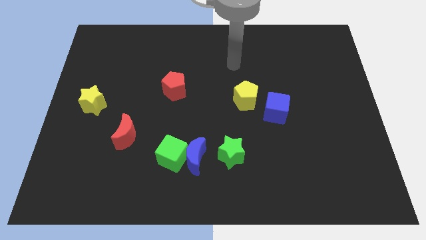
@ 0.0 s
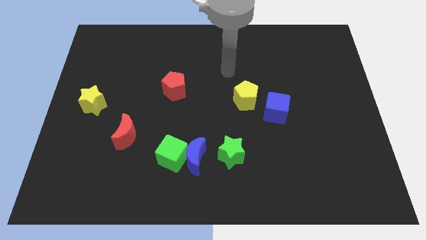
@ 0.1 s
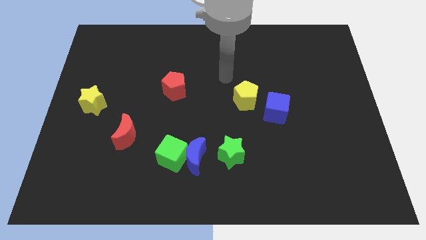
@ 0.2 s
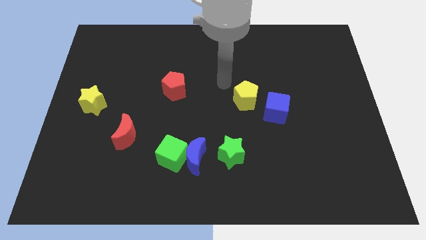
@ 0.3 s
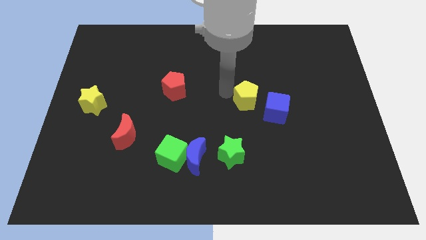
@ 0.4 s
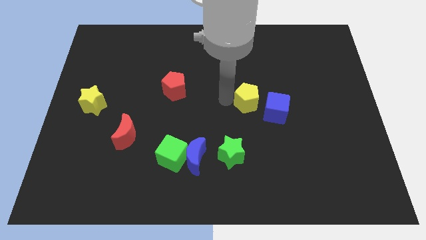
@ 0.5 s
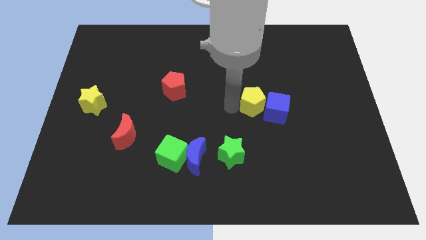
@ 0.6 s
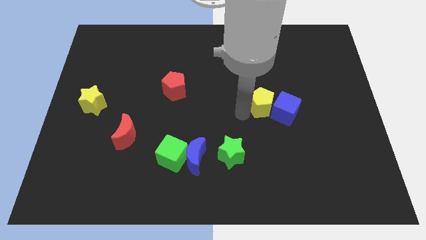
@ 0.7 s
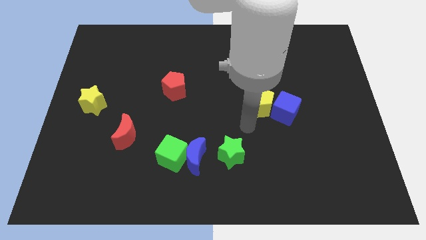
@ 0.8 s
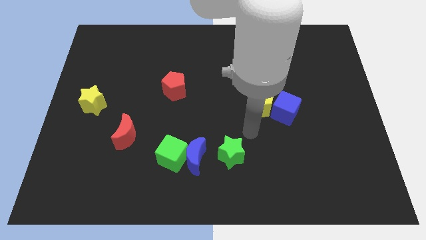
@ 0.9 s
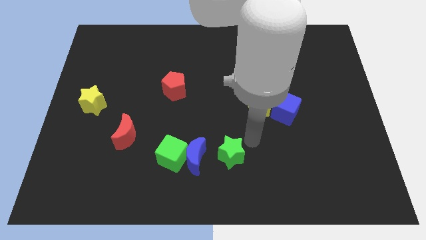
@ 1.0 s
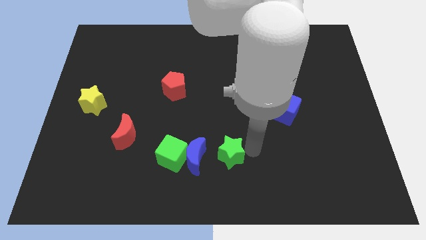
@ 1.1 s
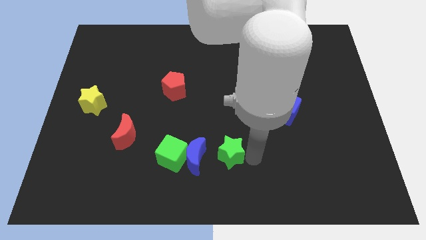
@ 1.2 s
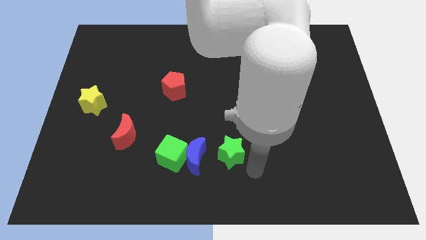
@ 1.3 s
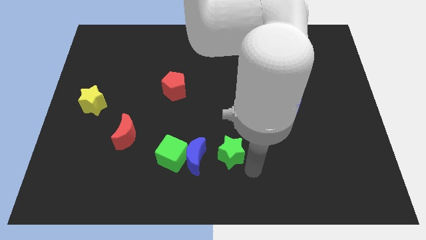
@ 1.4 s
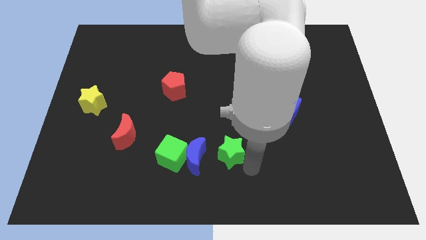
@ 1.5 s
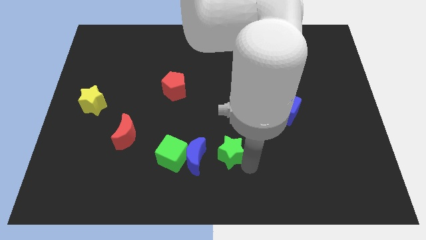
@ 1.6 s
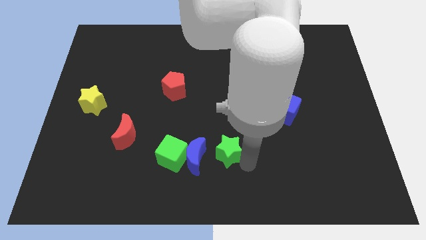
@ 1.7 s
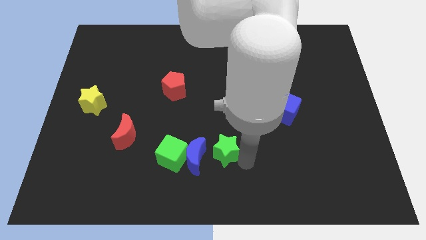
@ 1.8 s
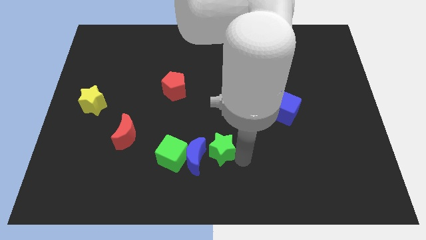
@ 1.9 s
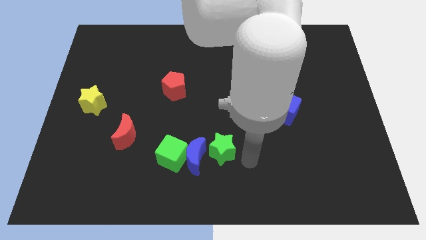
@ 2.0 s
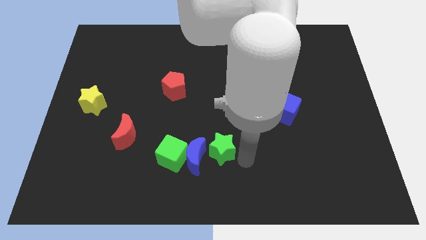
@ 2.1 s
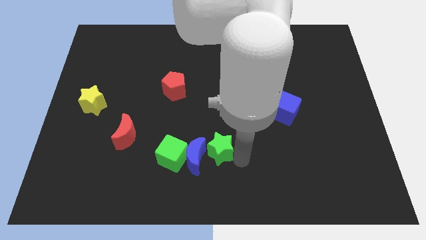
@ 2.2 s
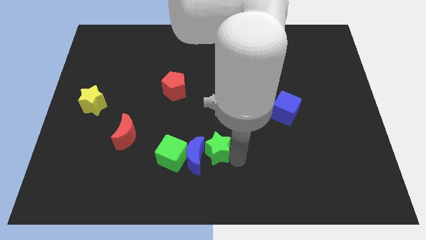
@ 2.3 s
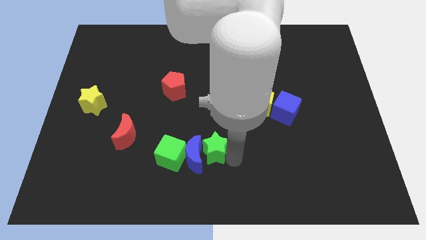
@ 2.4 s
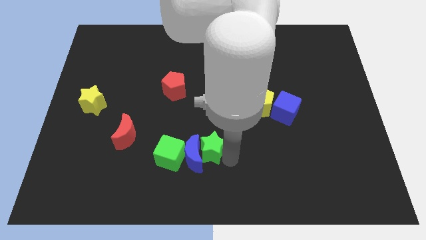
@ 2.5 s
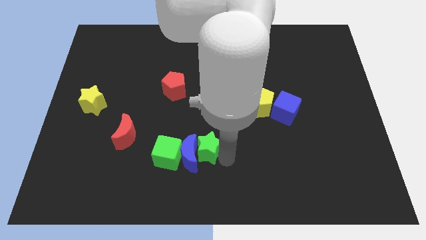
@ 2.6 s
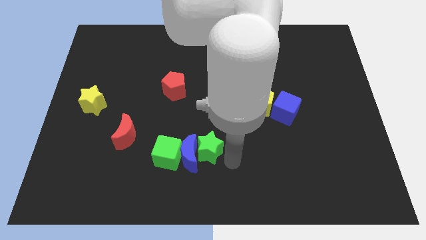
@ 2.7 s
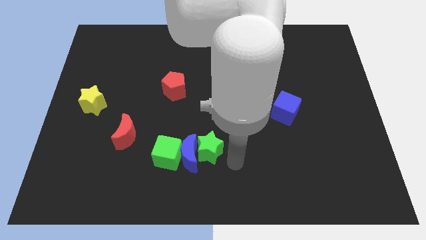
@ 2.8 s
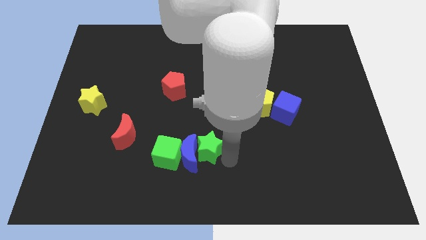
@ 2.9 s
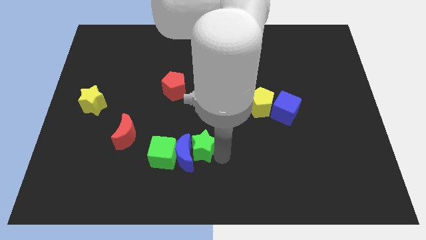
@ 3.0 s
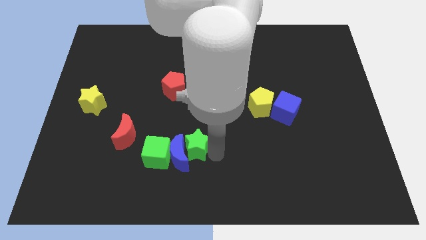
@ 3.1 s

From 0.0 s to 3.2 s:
slide the green star slightly left

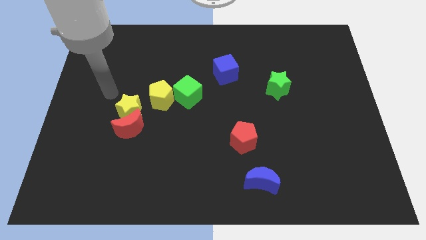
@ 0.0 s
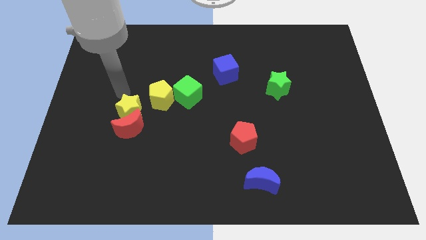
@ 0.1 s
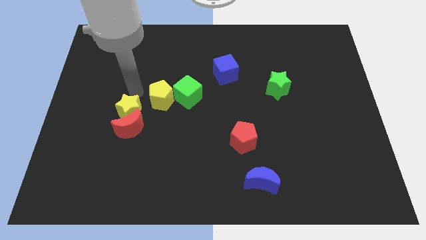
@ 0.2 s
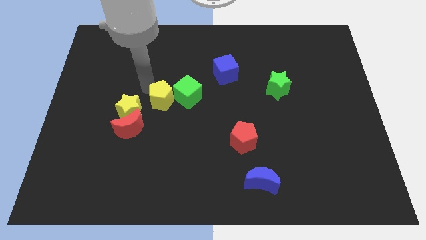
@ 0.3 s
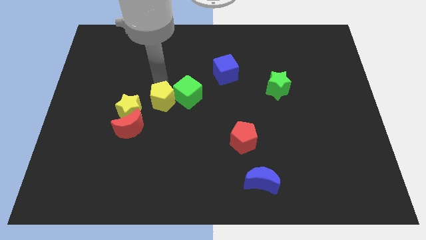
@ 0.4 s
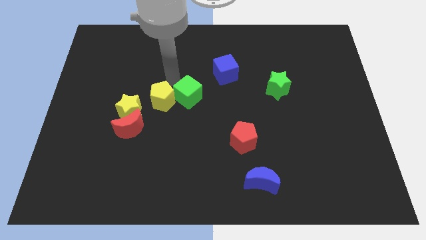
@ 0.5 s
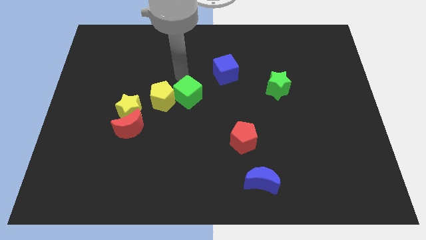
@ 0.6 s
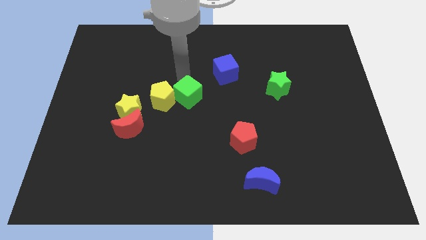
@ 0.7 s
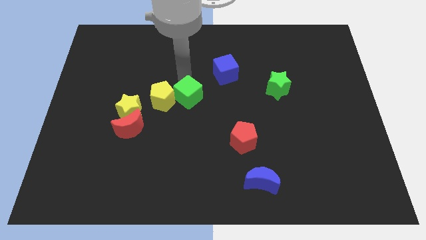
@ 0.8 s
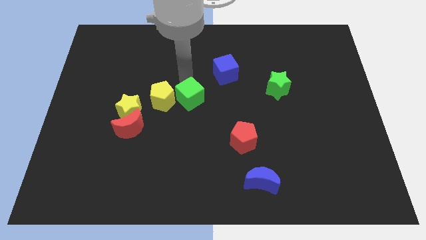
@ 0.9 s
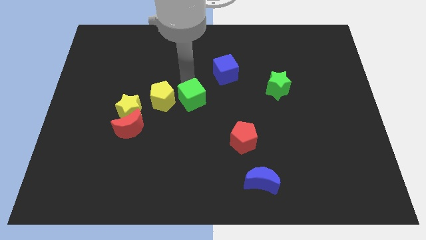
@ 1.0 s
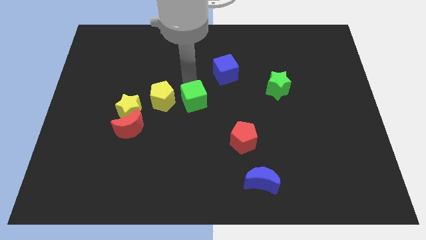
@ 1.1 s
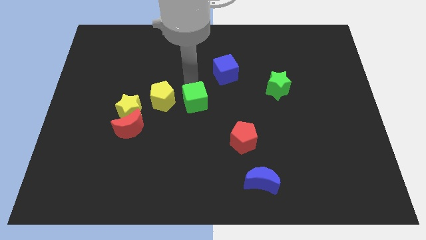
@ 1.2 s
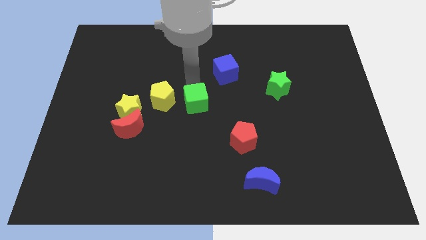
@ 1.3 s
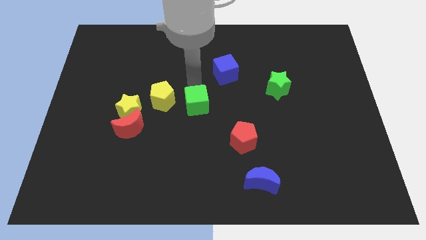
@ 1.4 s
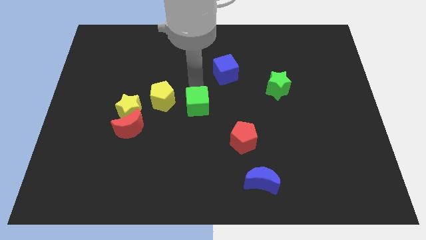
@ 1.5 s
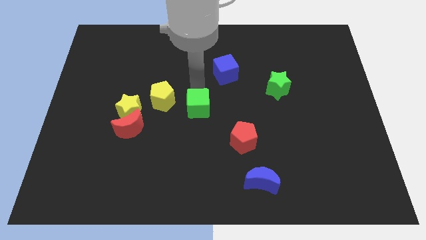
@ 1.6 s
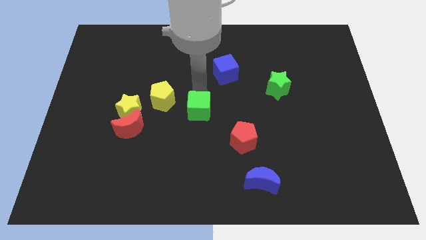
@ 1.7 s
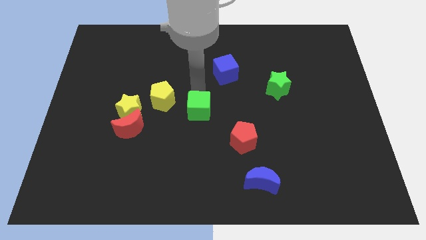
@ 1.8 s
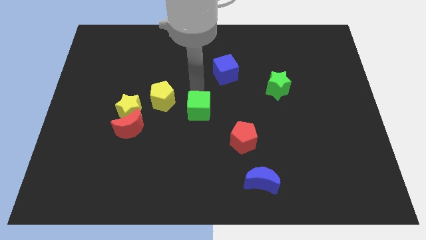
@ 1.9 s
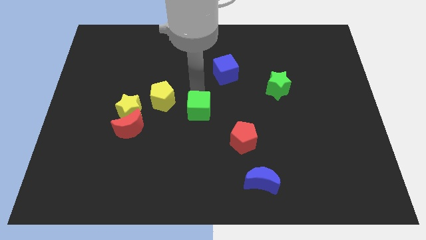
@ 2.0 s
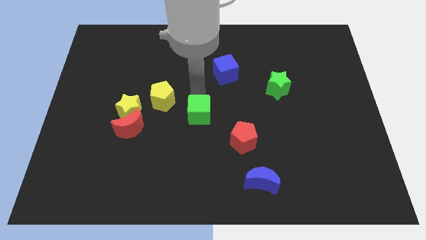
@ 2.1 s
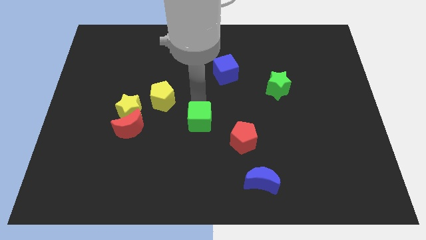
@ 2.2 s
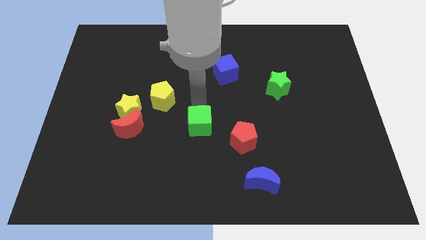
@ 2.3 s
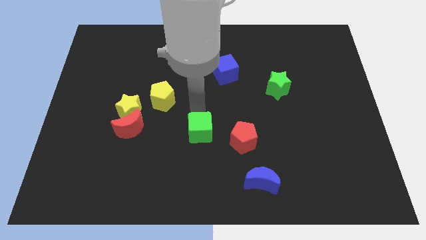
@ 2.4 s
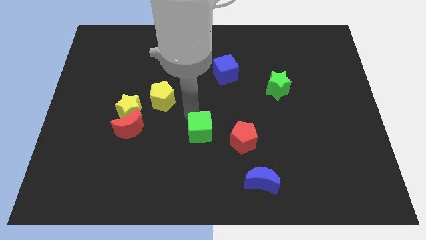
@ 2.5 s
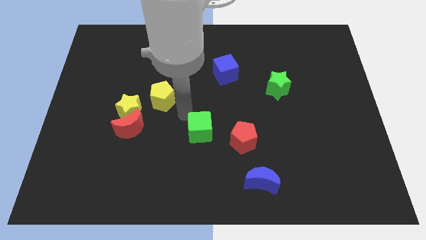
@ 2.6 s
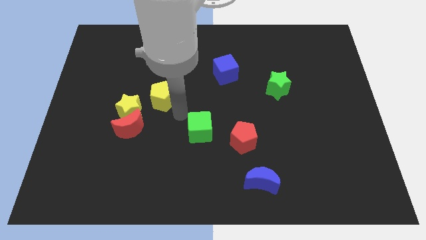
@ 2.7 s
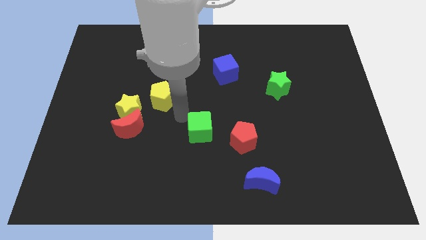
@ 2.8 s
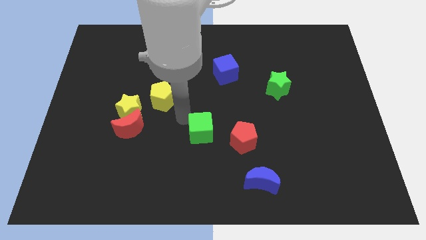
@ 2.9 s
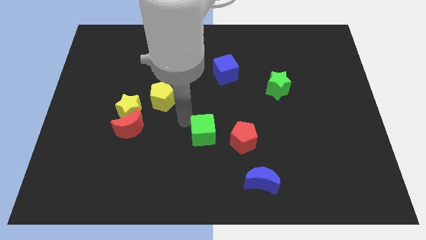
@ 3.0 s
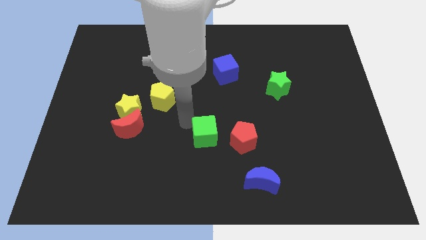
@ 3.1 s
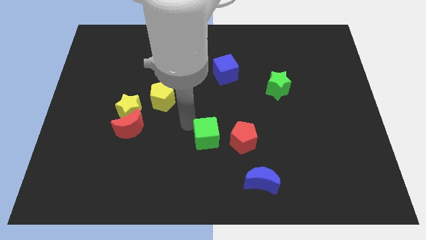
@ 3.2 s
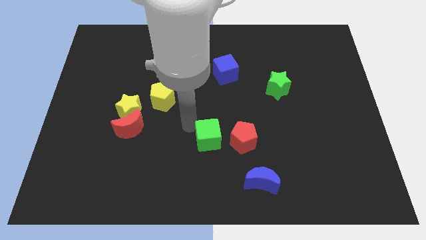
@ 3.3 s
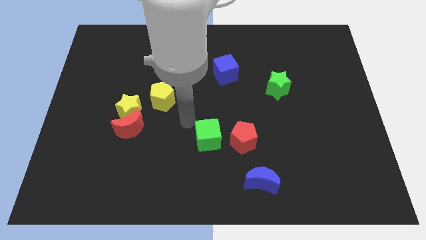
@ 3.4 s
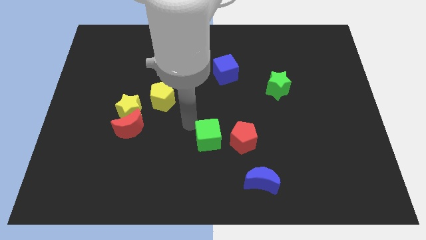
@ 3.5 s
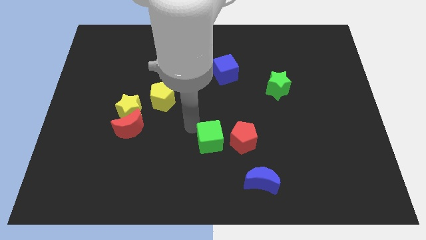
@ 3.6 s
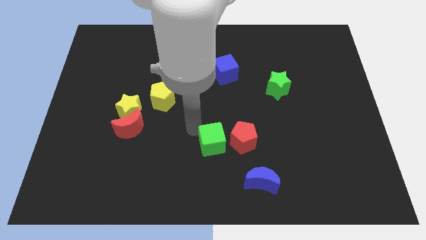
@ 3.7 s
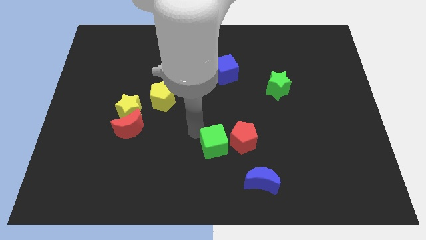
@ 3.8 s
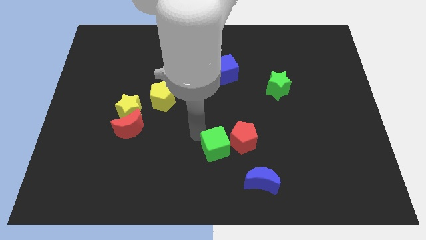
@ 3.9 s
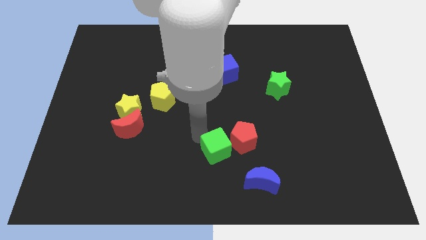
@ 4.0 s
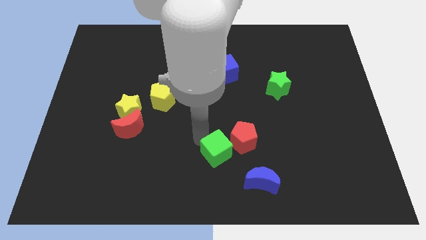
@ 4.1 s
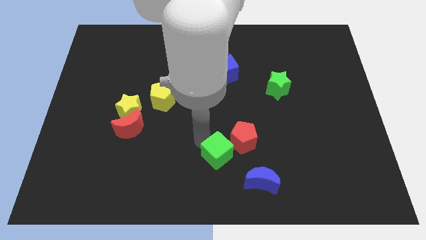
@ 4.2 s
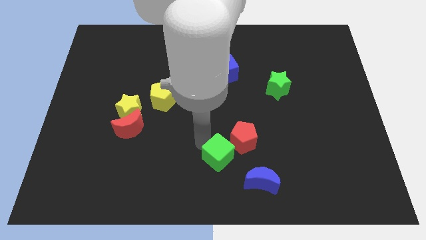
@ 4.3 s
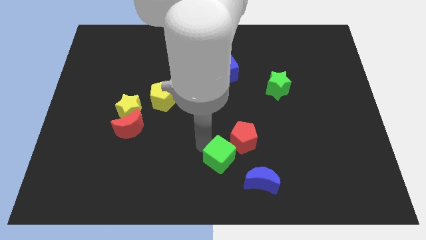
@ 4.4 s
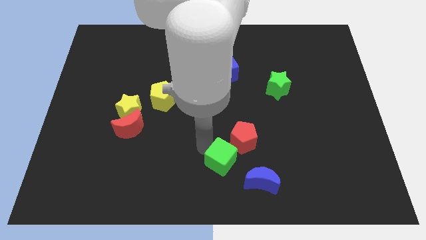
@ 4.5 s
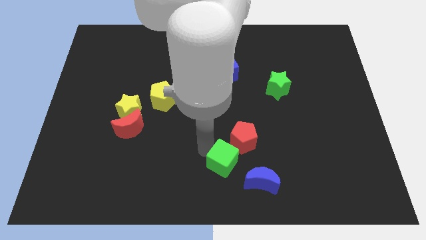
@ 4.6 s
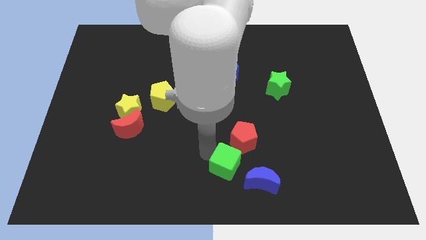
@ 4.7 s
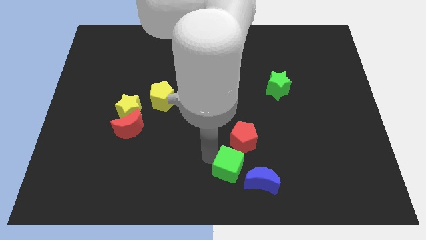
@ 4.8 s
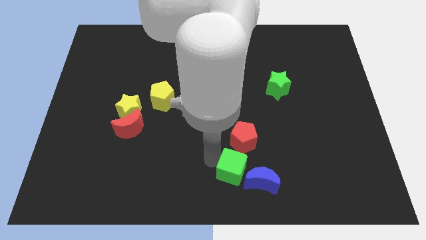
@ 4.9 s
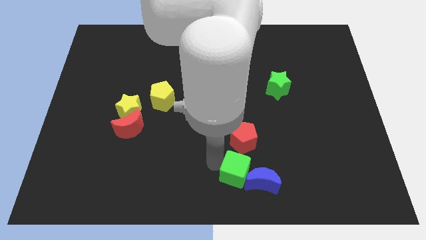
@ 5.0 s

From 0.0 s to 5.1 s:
slide the green cube diagonally downwards and right
